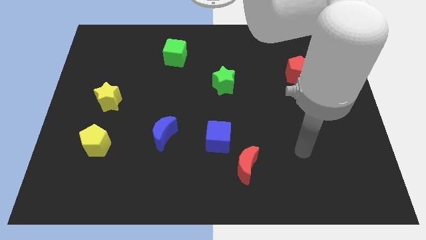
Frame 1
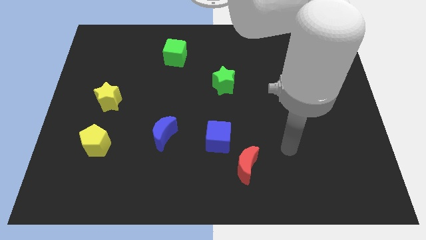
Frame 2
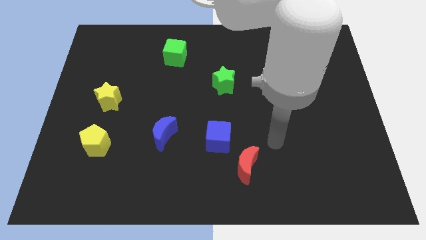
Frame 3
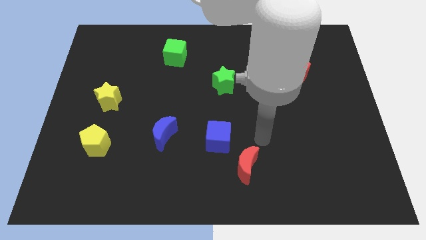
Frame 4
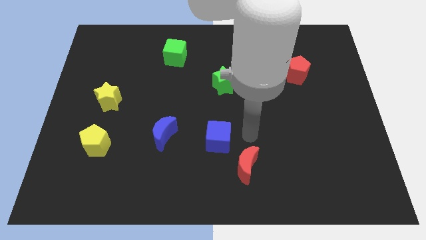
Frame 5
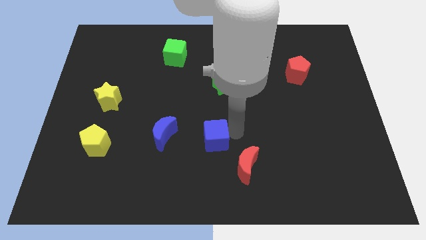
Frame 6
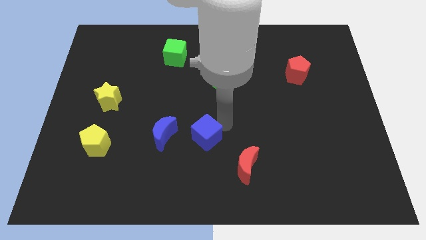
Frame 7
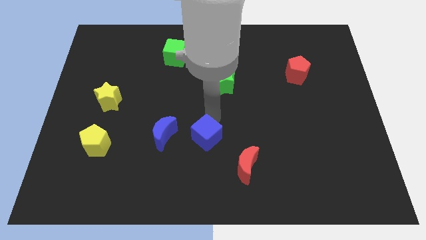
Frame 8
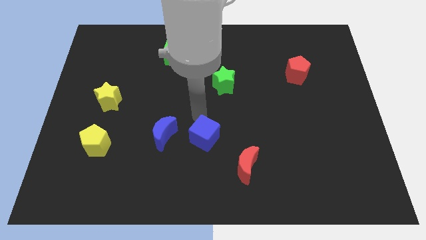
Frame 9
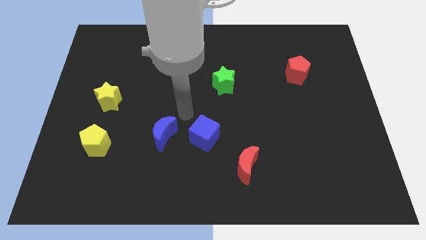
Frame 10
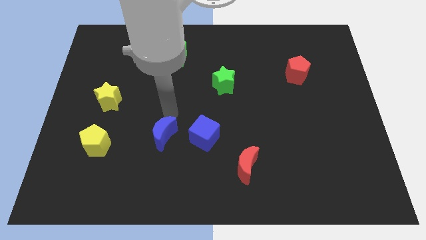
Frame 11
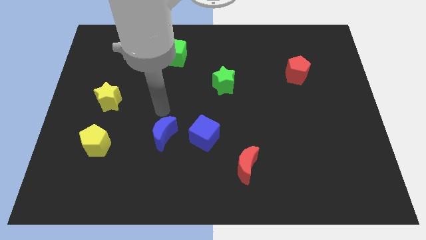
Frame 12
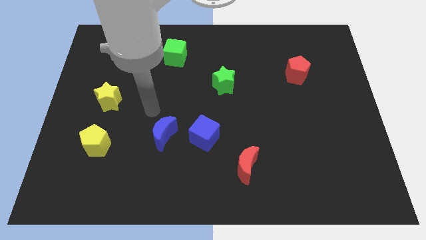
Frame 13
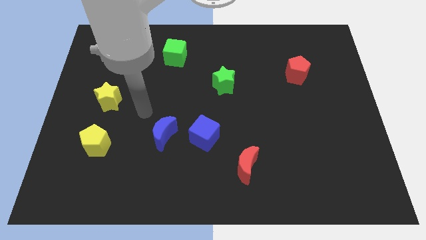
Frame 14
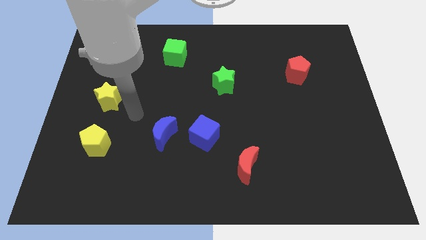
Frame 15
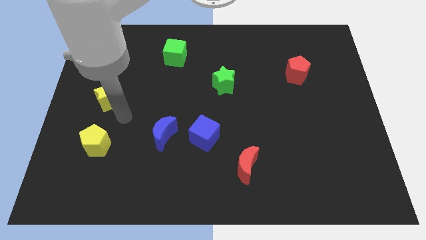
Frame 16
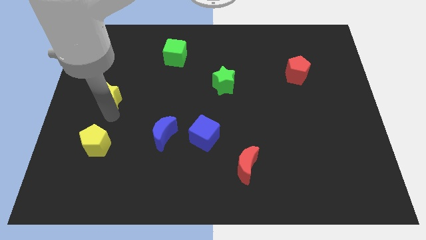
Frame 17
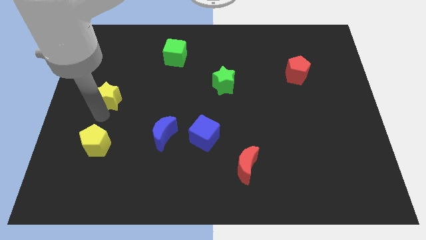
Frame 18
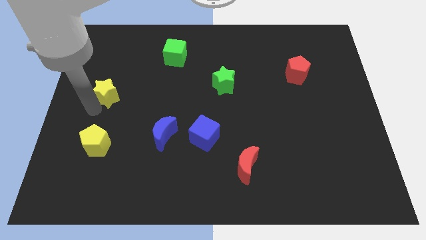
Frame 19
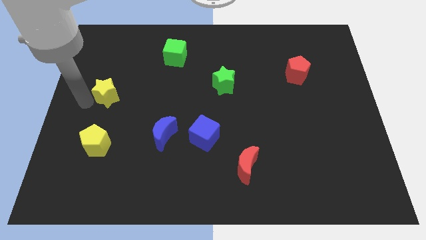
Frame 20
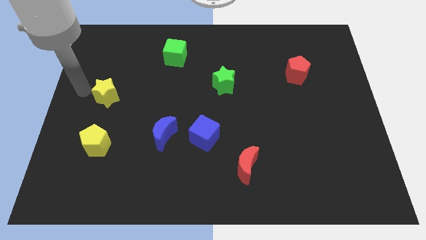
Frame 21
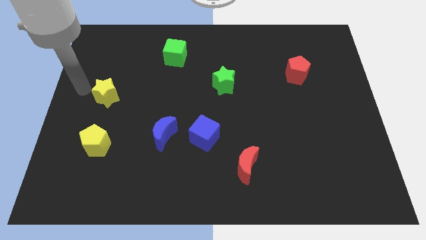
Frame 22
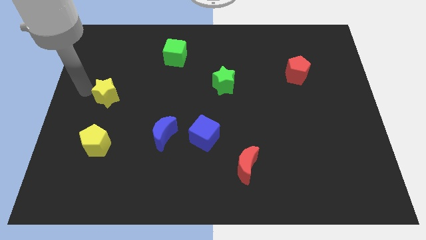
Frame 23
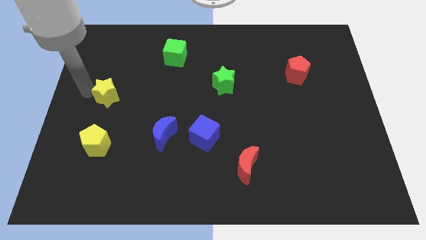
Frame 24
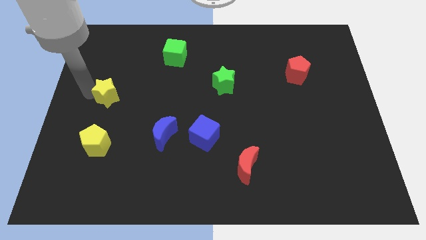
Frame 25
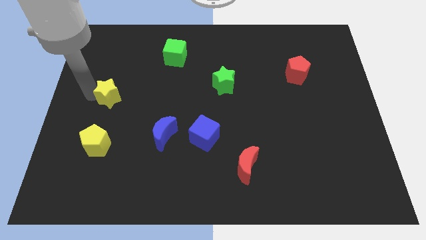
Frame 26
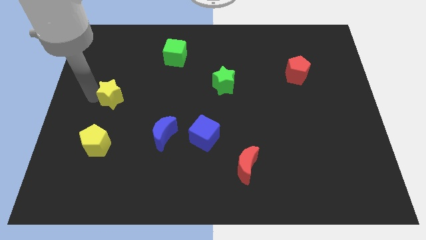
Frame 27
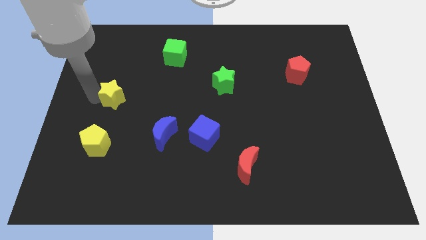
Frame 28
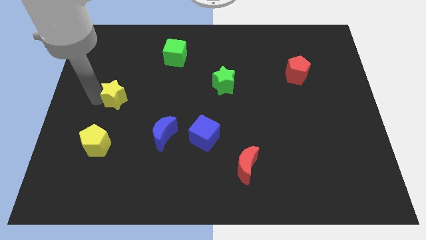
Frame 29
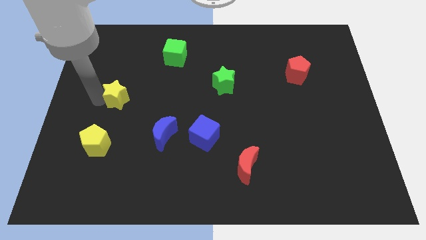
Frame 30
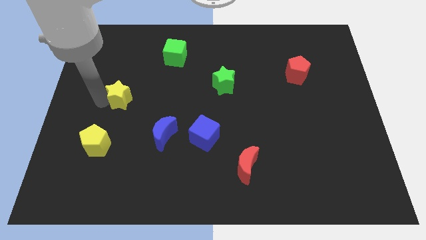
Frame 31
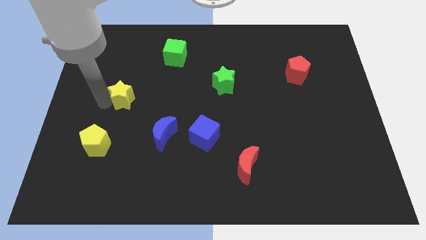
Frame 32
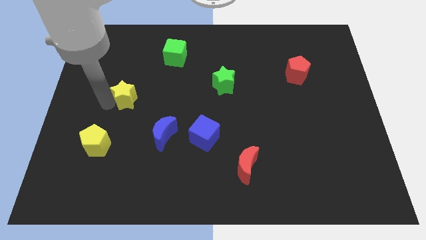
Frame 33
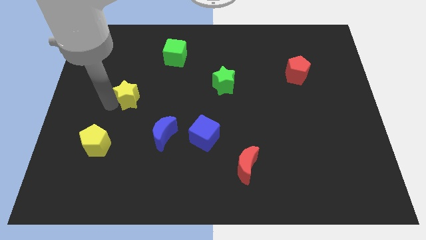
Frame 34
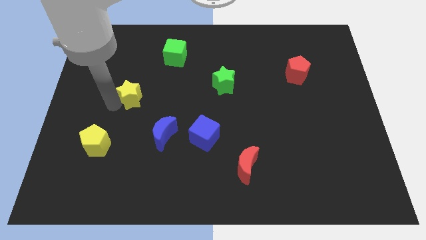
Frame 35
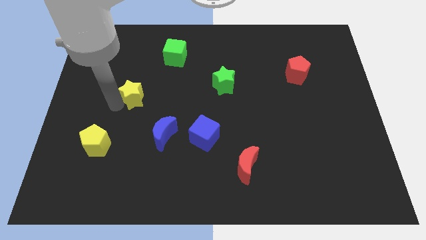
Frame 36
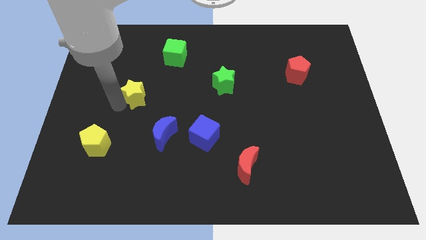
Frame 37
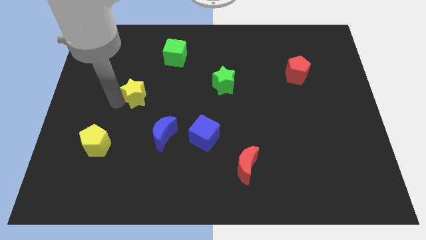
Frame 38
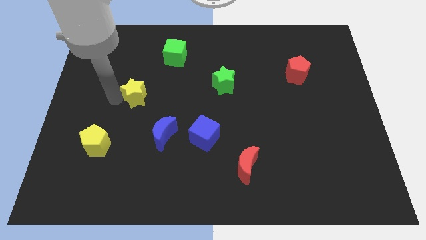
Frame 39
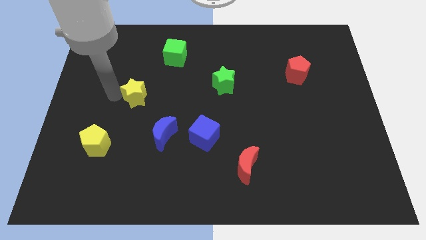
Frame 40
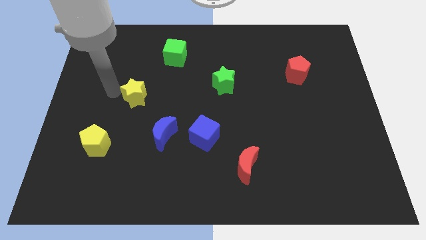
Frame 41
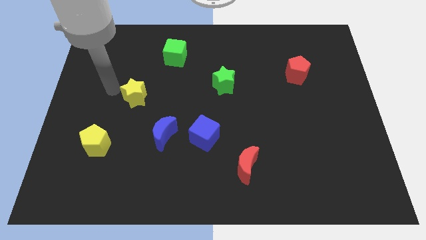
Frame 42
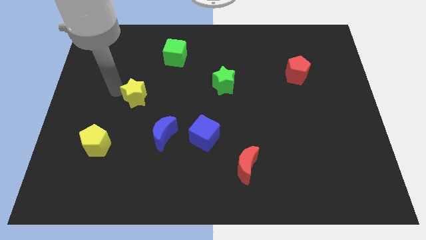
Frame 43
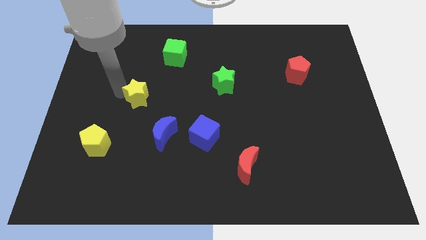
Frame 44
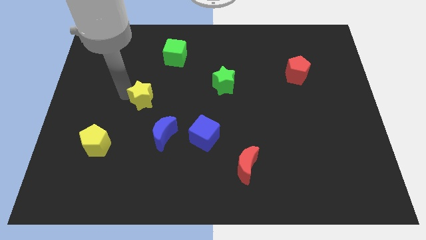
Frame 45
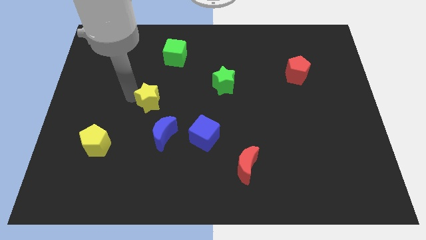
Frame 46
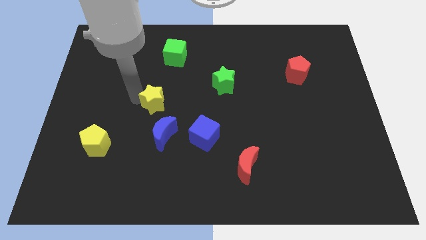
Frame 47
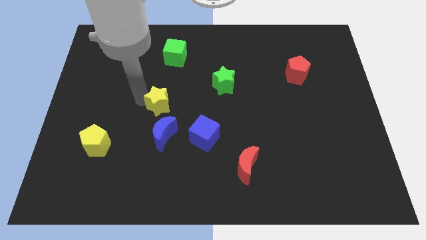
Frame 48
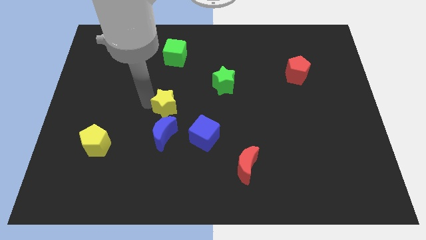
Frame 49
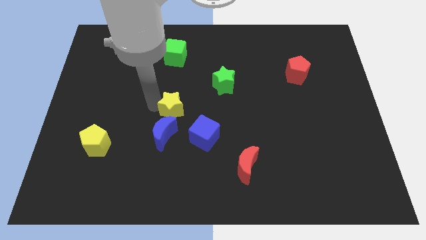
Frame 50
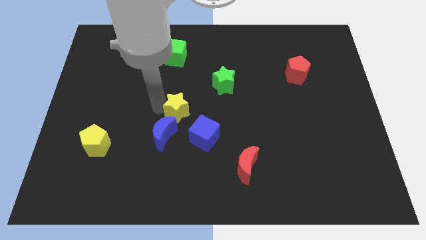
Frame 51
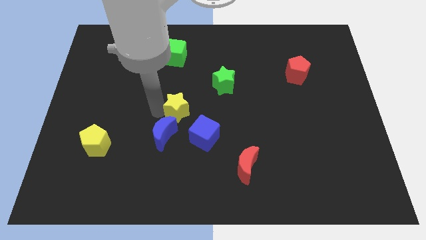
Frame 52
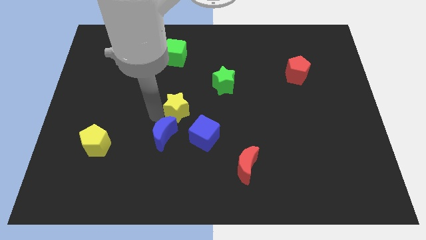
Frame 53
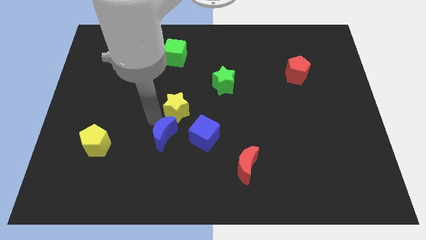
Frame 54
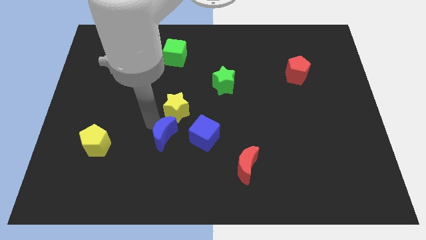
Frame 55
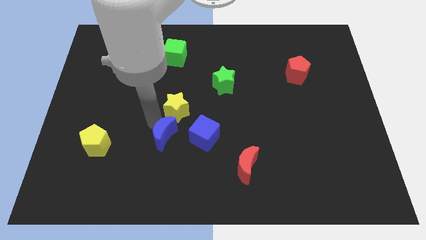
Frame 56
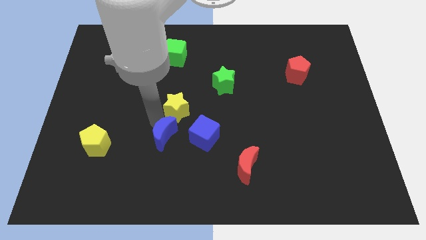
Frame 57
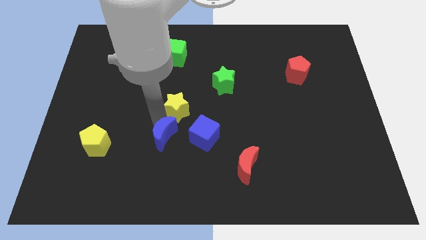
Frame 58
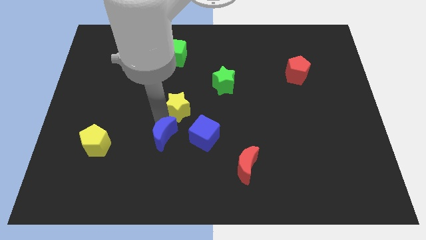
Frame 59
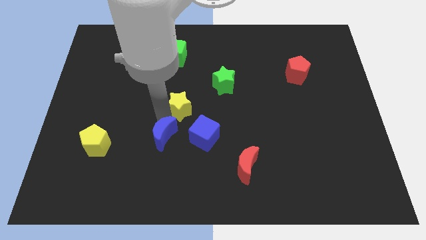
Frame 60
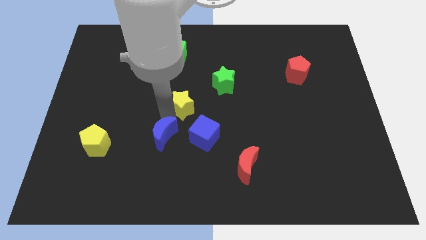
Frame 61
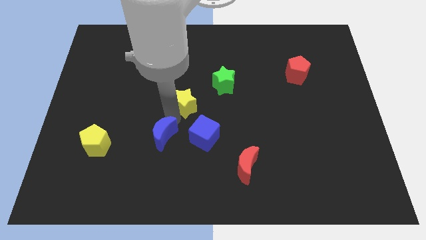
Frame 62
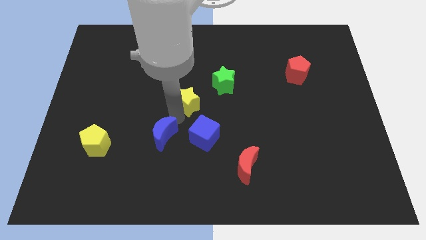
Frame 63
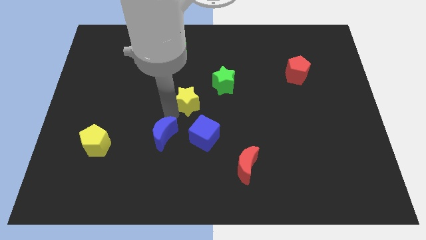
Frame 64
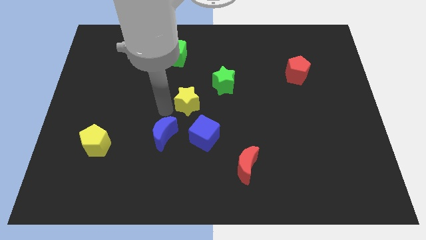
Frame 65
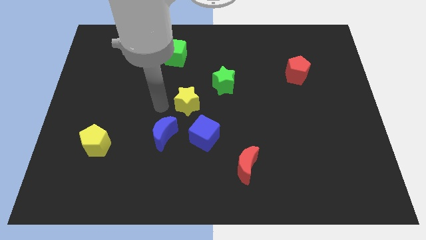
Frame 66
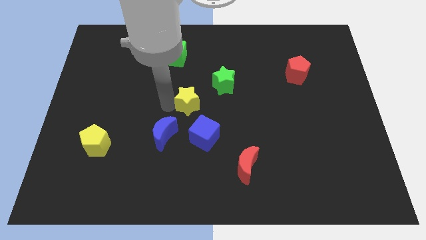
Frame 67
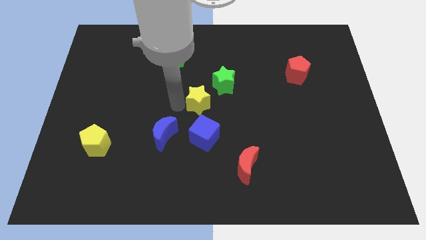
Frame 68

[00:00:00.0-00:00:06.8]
move the yellow star to the right

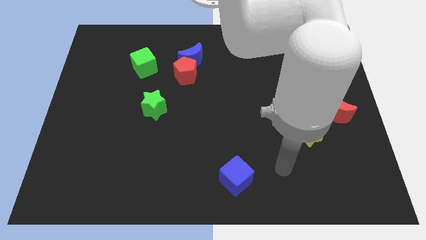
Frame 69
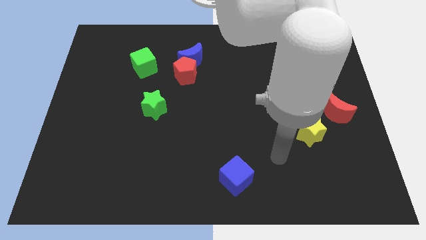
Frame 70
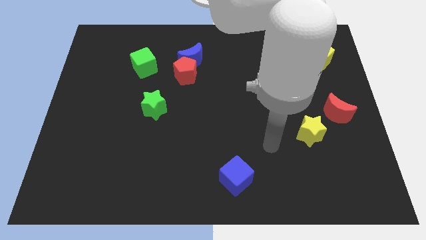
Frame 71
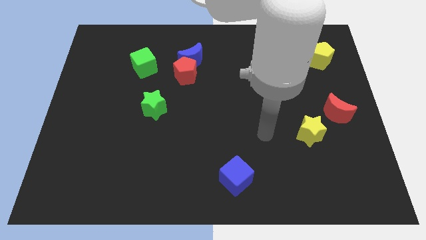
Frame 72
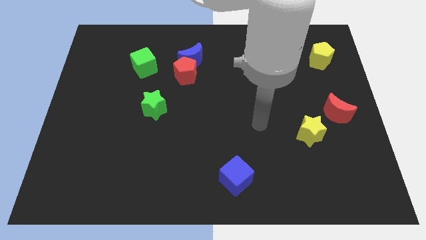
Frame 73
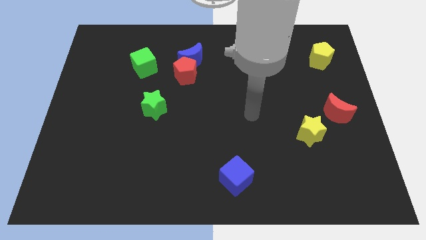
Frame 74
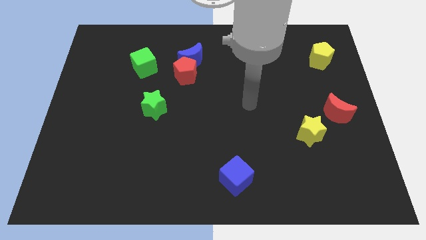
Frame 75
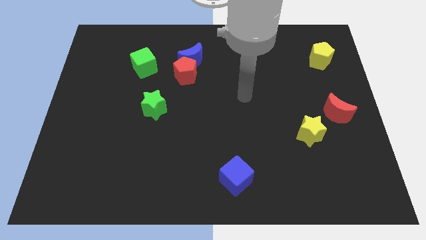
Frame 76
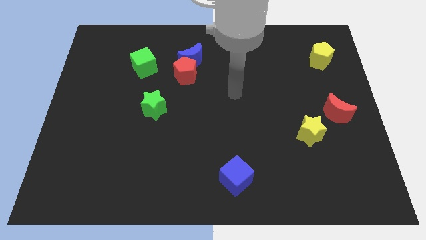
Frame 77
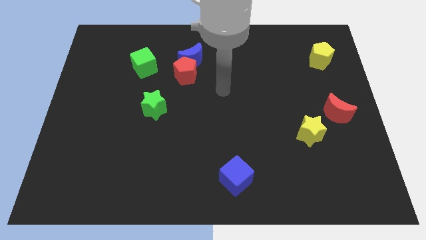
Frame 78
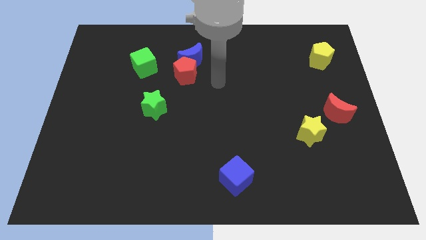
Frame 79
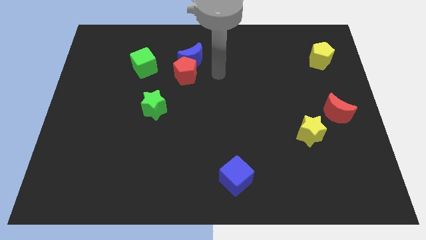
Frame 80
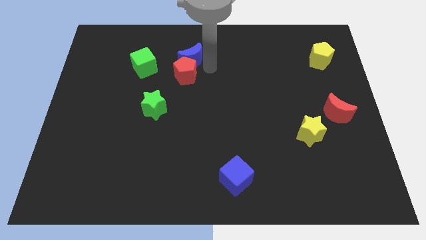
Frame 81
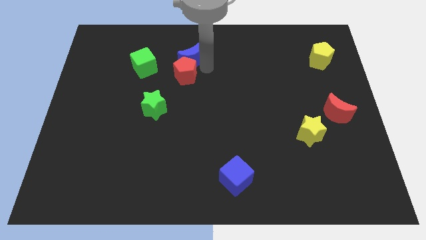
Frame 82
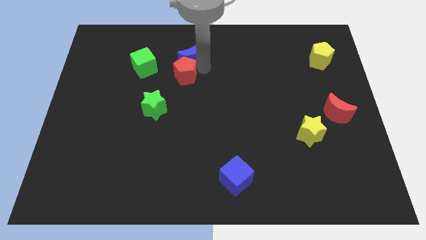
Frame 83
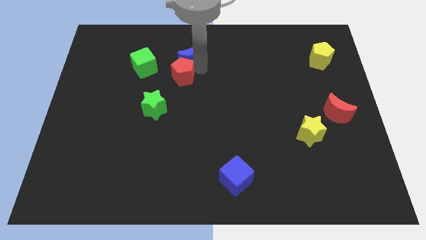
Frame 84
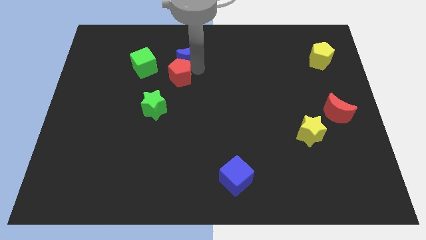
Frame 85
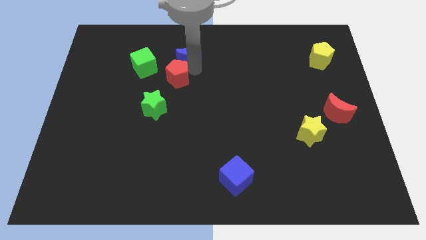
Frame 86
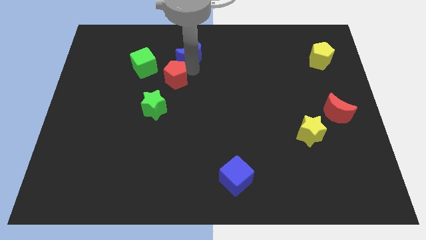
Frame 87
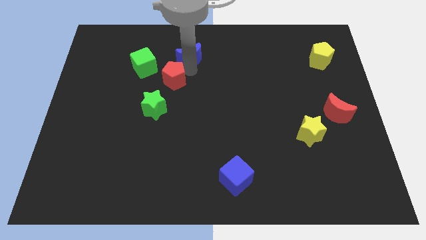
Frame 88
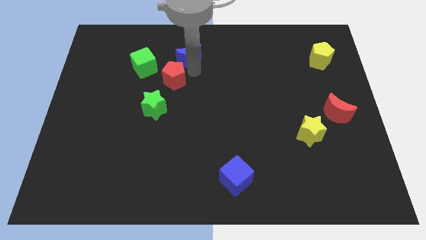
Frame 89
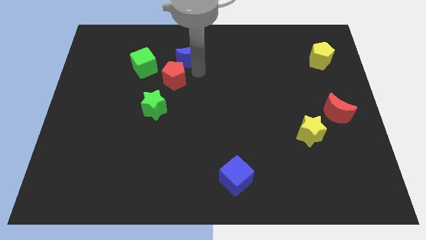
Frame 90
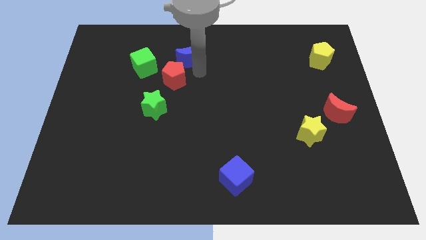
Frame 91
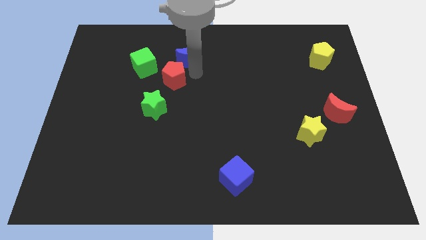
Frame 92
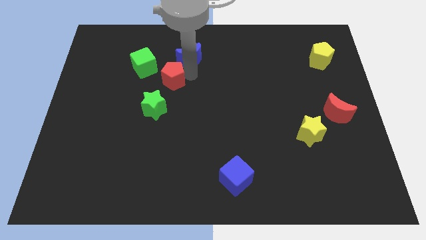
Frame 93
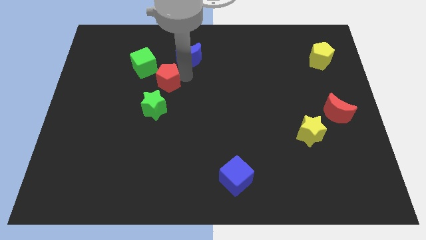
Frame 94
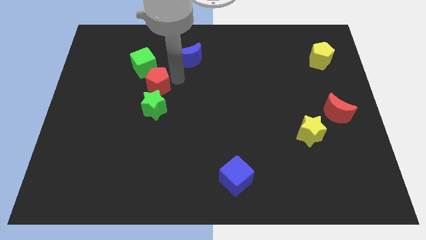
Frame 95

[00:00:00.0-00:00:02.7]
move the red pentagon diagonally down and left slightly
